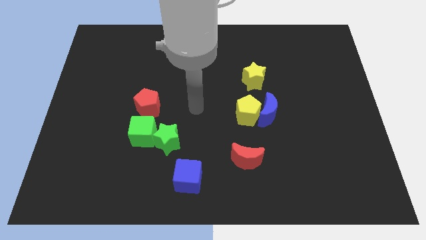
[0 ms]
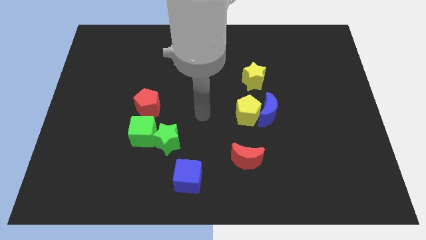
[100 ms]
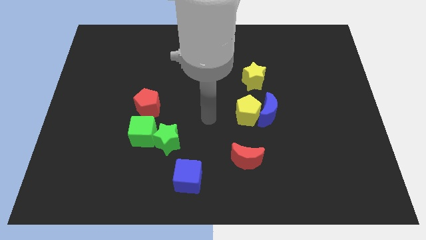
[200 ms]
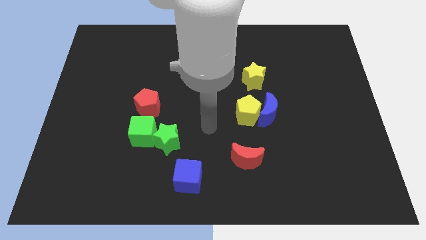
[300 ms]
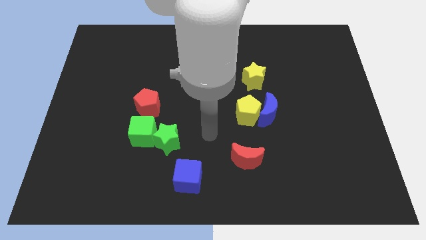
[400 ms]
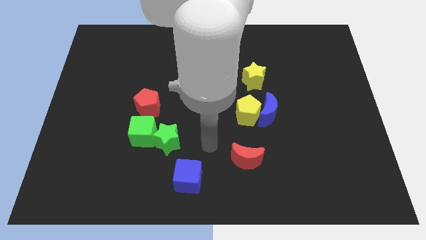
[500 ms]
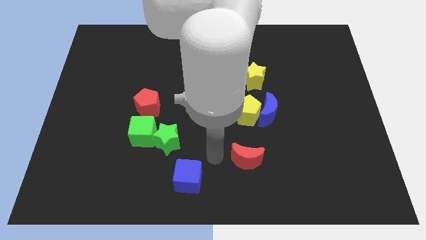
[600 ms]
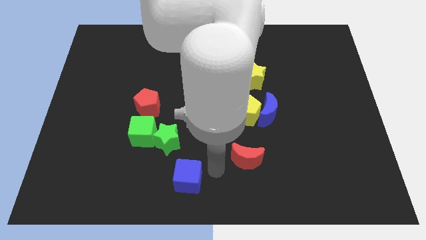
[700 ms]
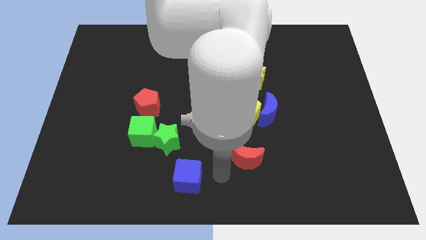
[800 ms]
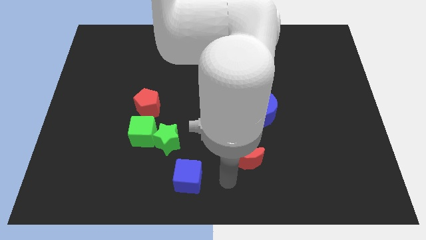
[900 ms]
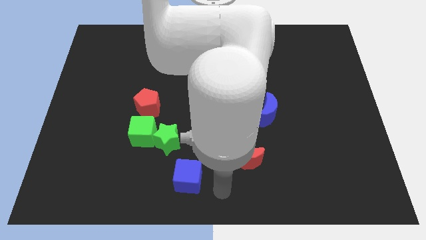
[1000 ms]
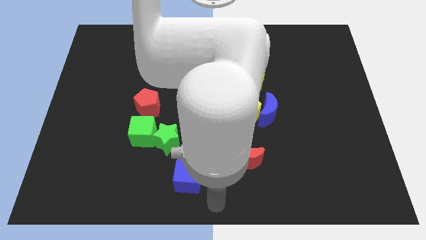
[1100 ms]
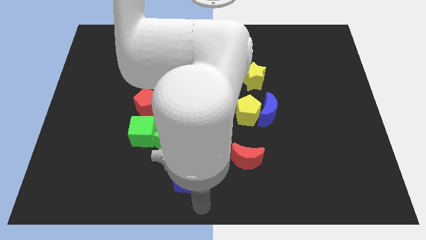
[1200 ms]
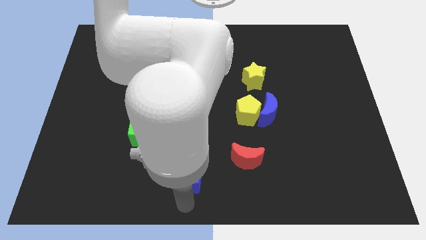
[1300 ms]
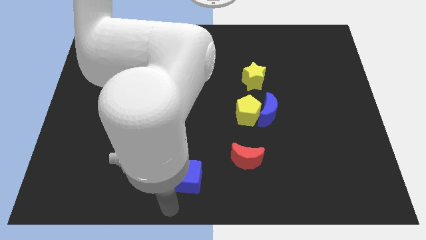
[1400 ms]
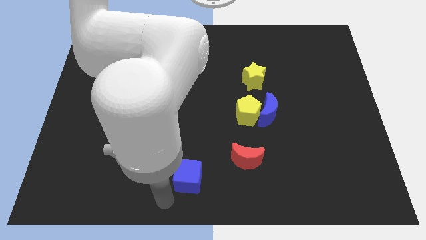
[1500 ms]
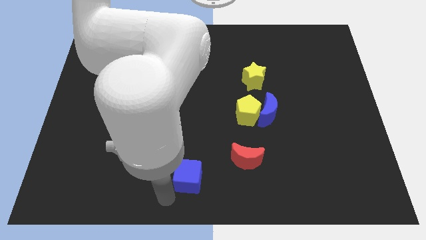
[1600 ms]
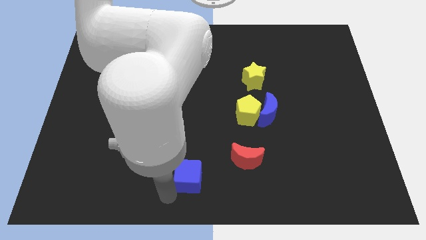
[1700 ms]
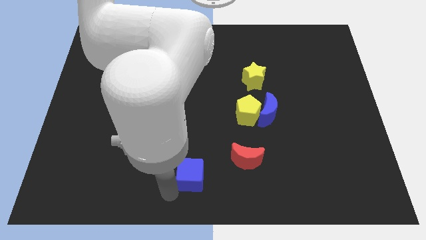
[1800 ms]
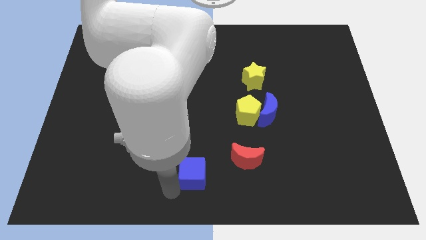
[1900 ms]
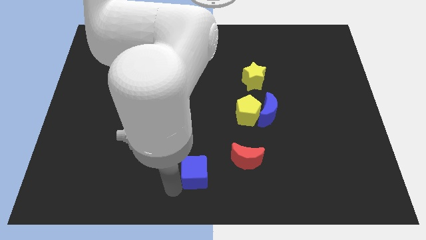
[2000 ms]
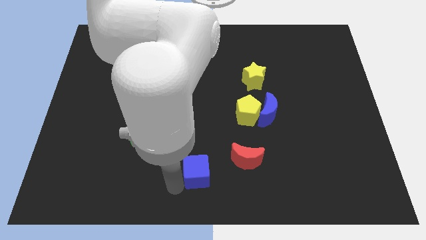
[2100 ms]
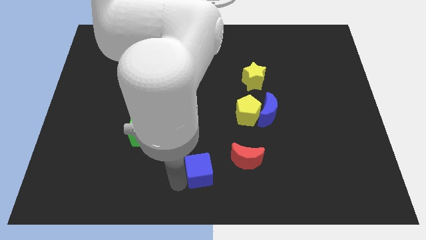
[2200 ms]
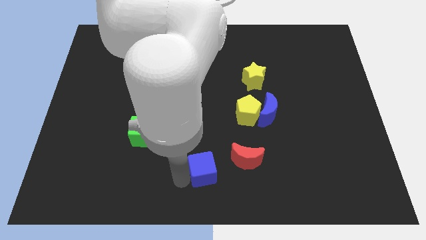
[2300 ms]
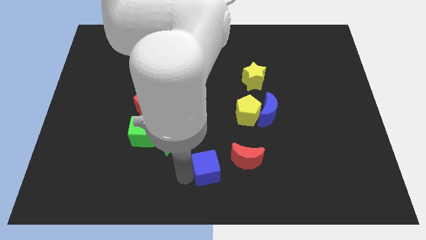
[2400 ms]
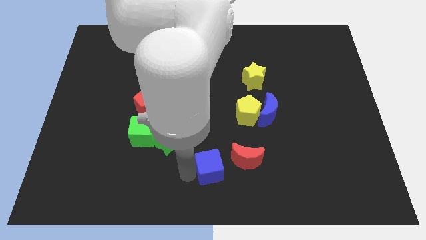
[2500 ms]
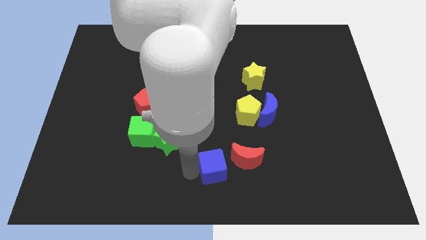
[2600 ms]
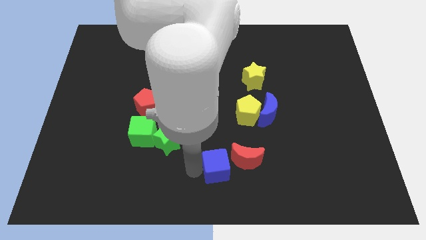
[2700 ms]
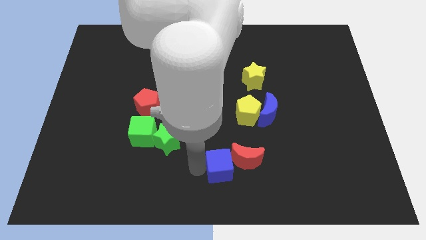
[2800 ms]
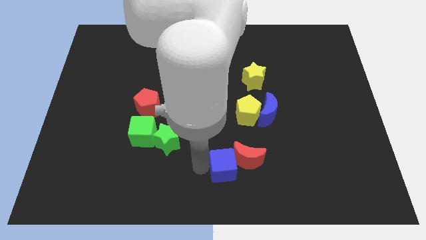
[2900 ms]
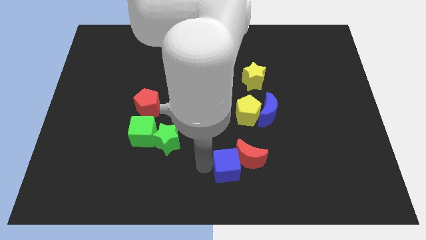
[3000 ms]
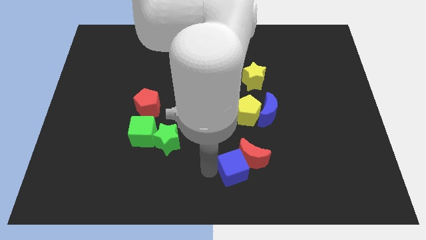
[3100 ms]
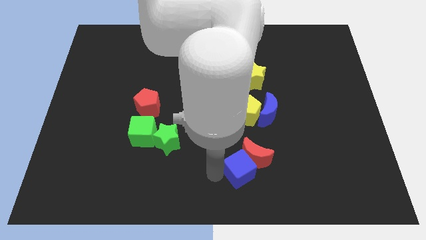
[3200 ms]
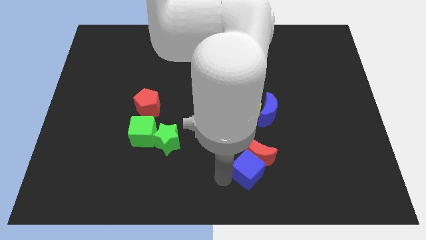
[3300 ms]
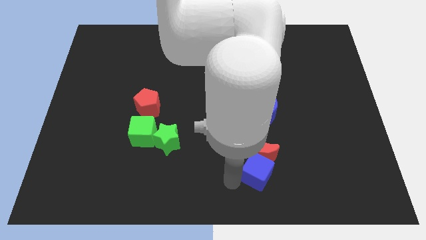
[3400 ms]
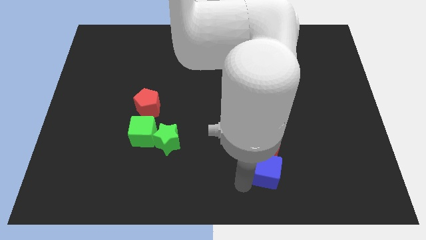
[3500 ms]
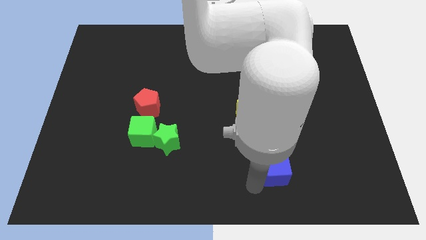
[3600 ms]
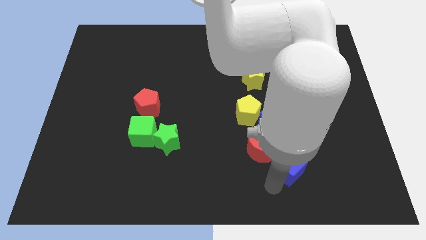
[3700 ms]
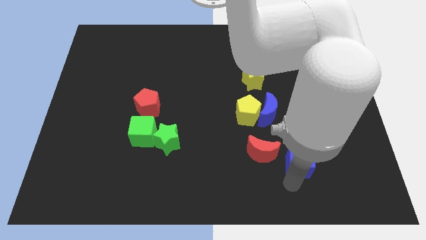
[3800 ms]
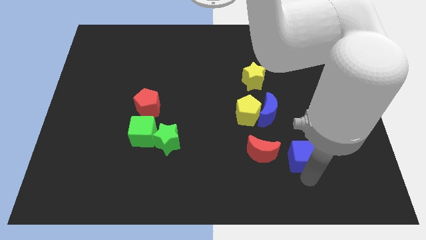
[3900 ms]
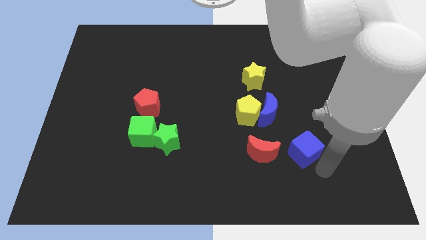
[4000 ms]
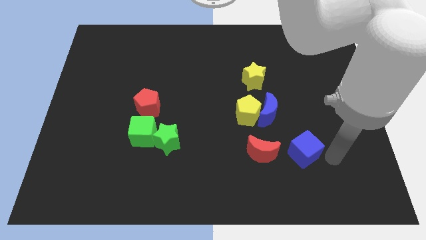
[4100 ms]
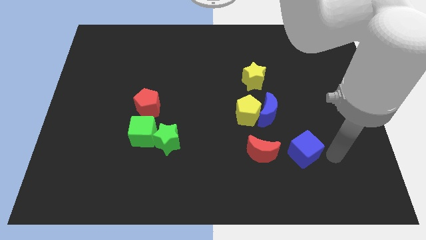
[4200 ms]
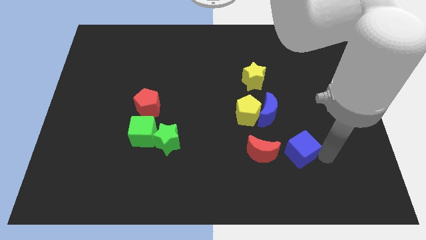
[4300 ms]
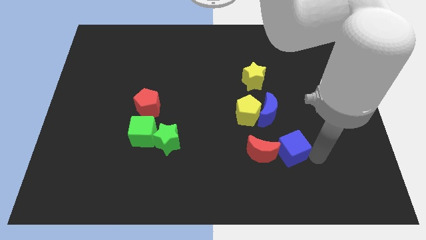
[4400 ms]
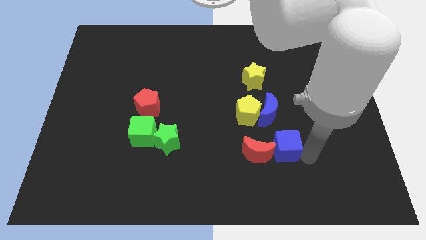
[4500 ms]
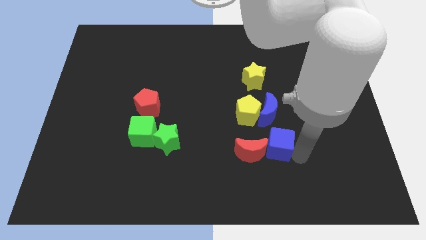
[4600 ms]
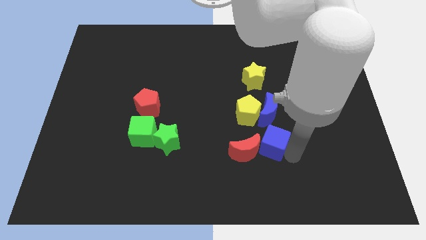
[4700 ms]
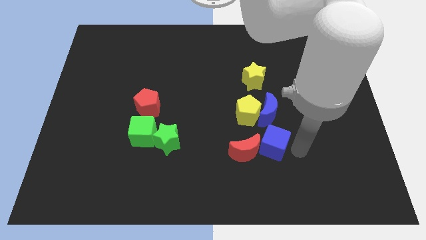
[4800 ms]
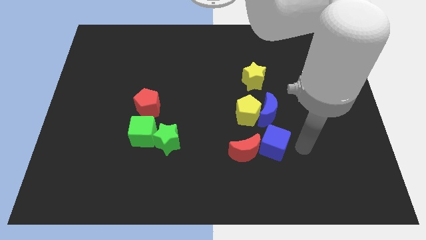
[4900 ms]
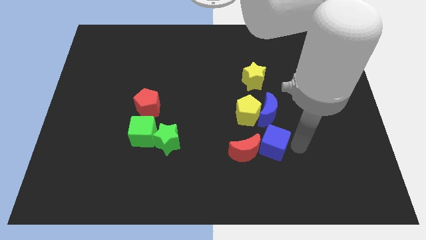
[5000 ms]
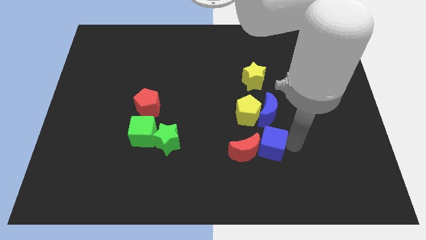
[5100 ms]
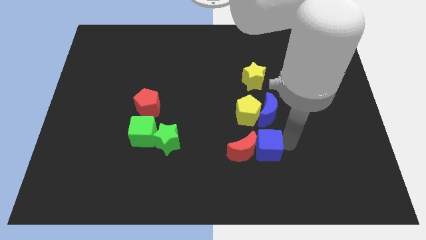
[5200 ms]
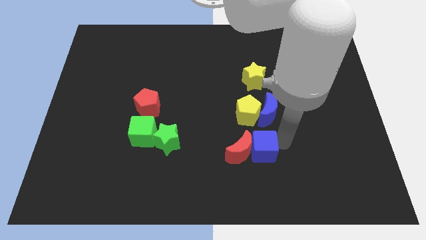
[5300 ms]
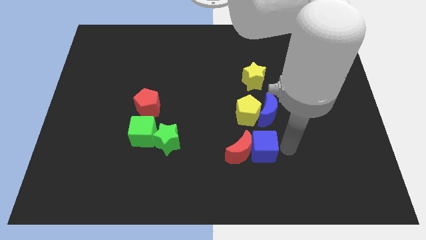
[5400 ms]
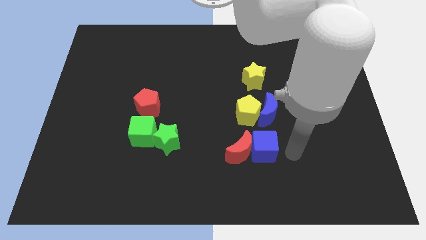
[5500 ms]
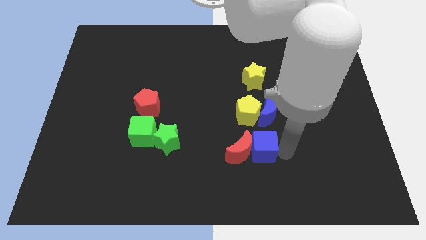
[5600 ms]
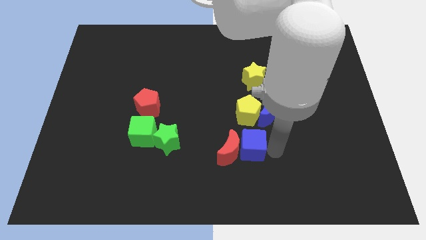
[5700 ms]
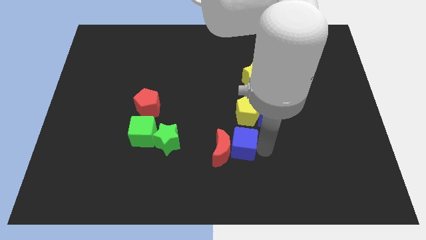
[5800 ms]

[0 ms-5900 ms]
move the blue cube just right of the green star
